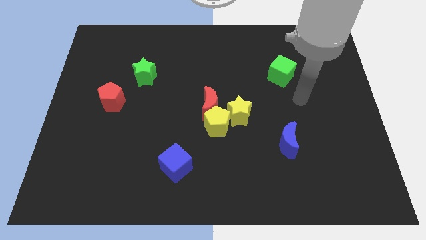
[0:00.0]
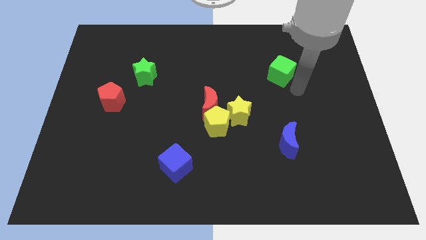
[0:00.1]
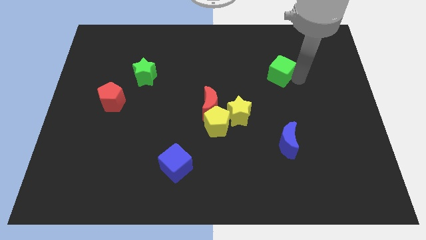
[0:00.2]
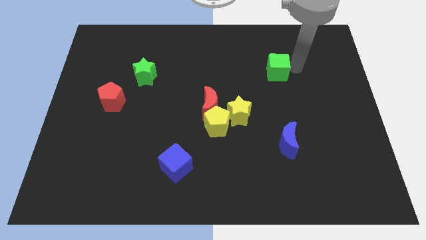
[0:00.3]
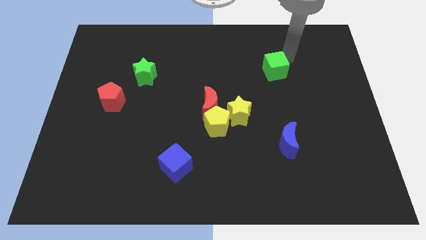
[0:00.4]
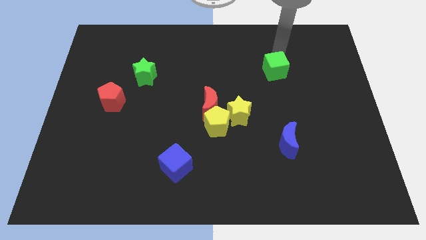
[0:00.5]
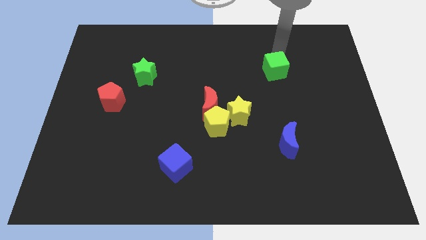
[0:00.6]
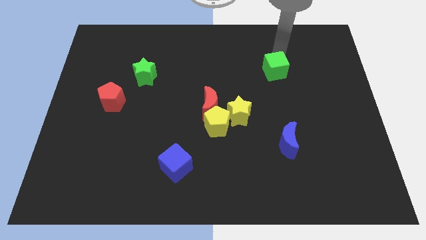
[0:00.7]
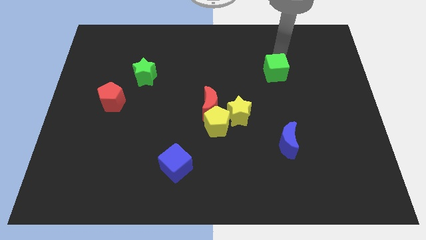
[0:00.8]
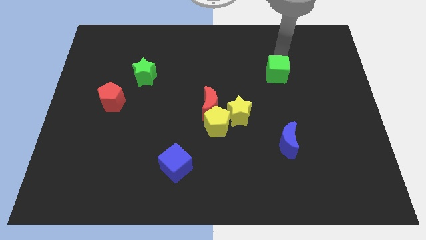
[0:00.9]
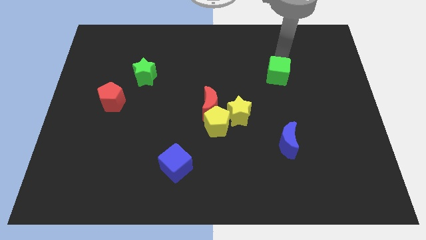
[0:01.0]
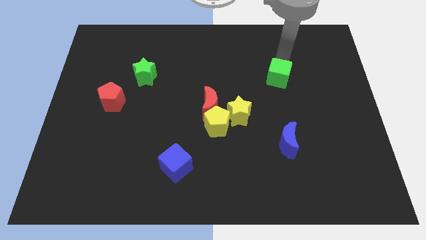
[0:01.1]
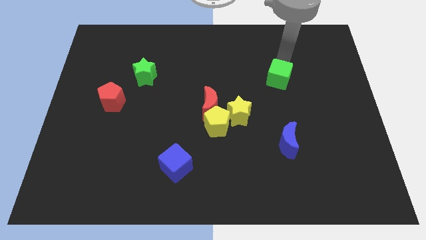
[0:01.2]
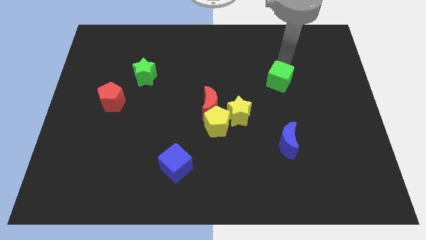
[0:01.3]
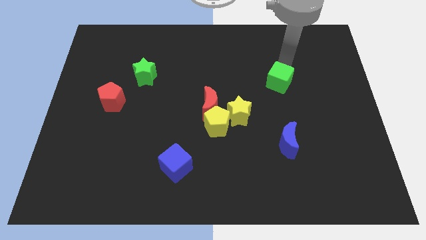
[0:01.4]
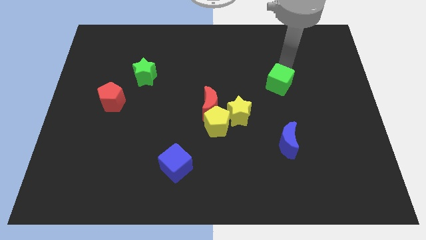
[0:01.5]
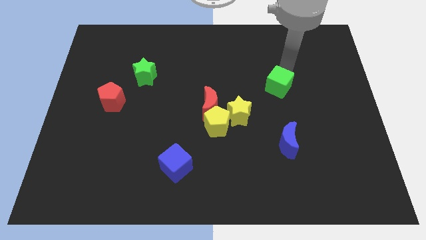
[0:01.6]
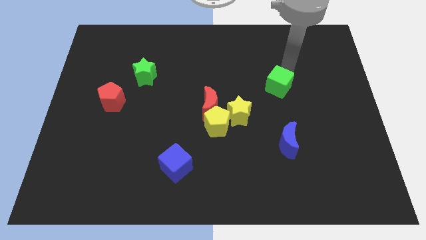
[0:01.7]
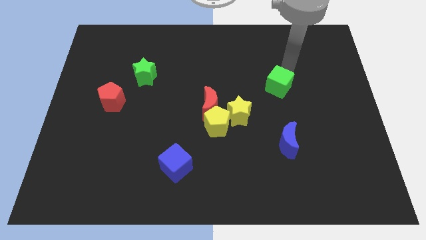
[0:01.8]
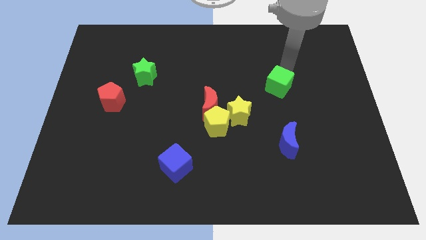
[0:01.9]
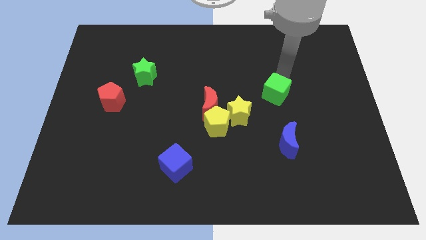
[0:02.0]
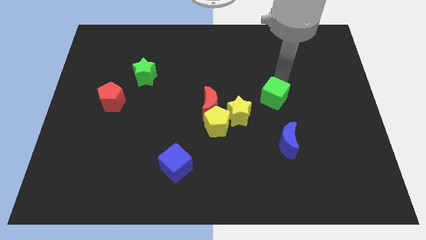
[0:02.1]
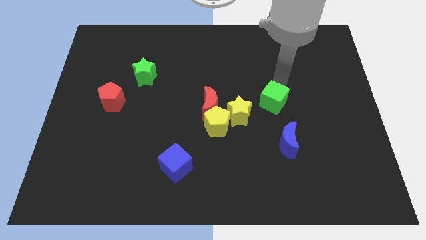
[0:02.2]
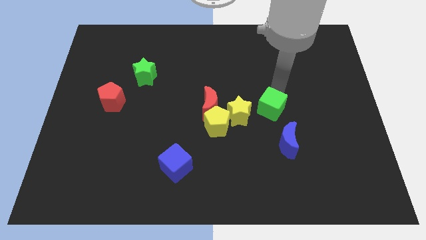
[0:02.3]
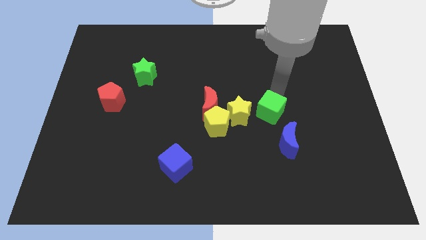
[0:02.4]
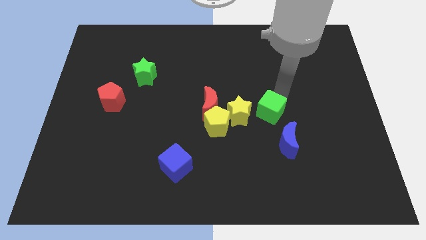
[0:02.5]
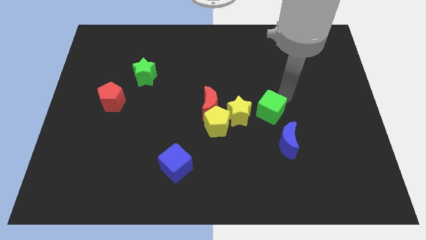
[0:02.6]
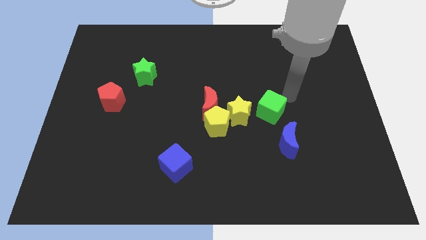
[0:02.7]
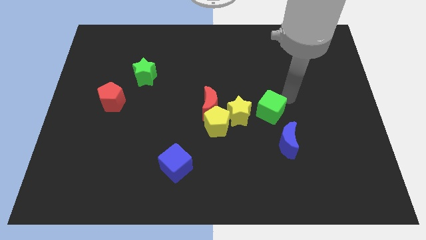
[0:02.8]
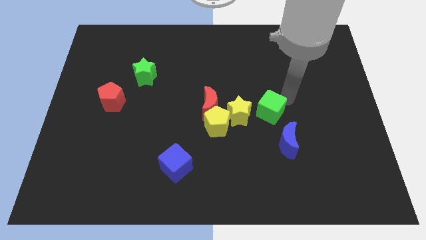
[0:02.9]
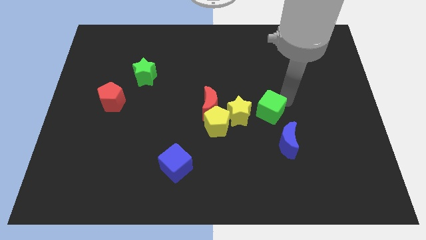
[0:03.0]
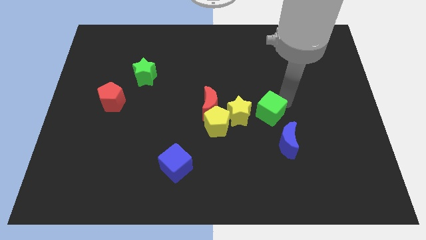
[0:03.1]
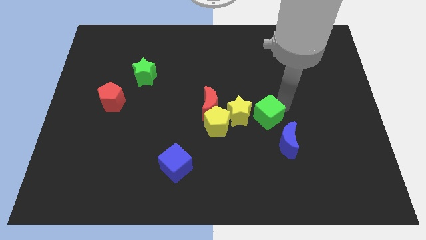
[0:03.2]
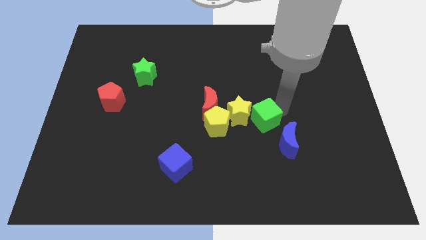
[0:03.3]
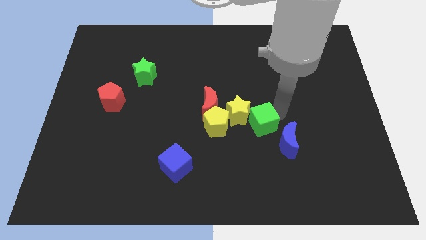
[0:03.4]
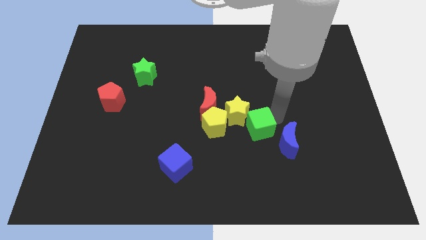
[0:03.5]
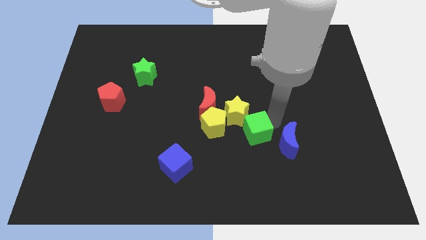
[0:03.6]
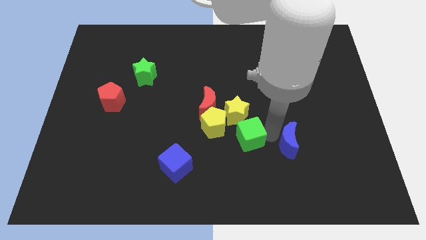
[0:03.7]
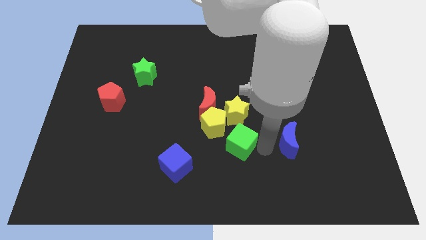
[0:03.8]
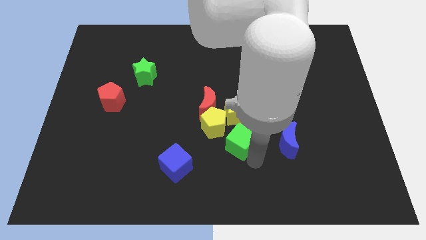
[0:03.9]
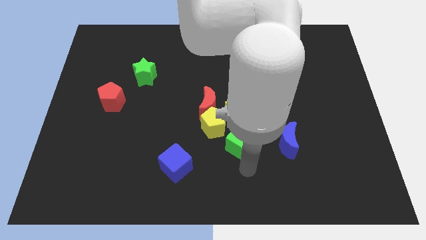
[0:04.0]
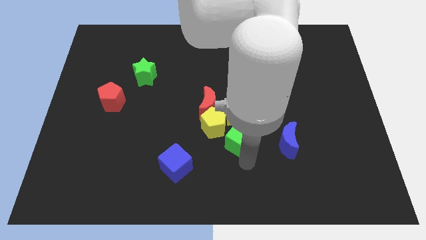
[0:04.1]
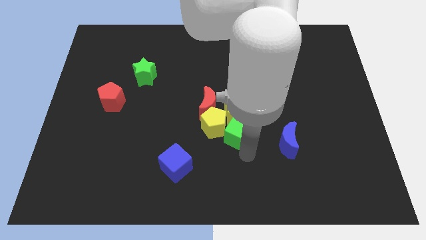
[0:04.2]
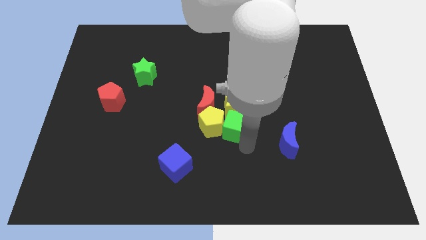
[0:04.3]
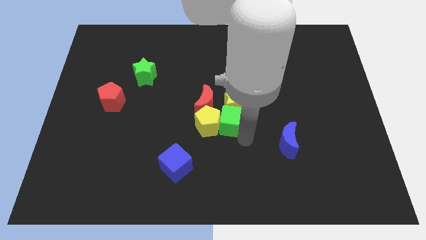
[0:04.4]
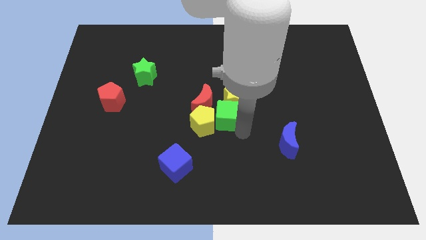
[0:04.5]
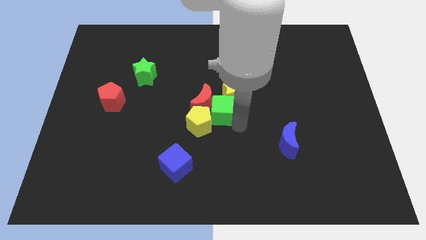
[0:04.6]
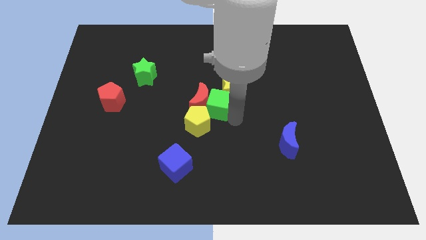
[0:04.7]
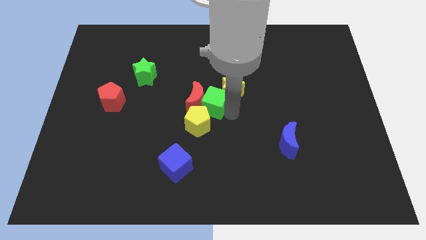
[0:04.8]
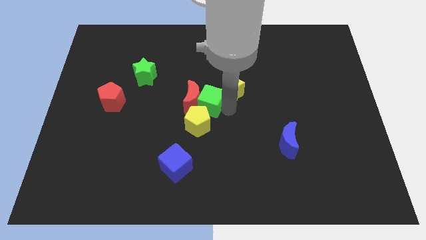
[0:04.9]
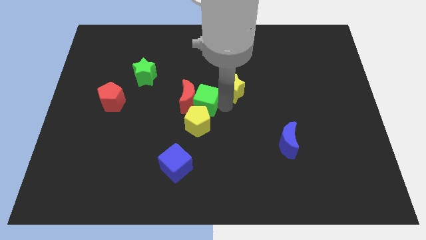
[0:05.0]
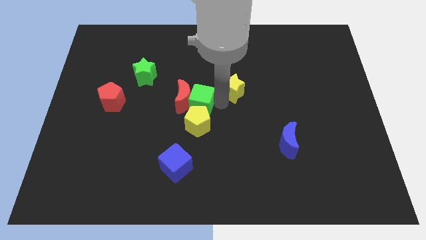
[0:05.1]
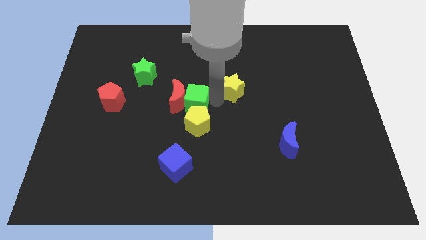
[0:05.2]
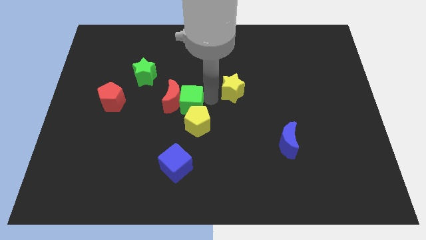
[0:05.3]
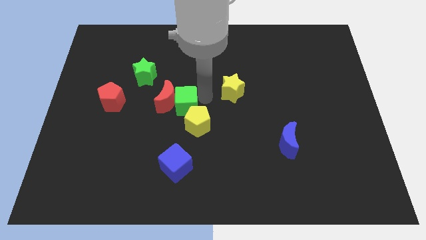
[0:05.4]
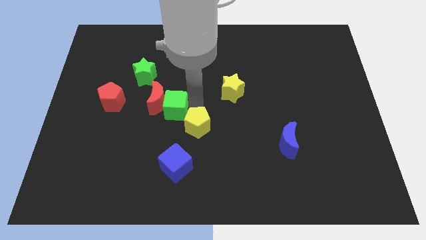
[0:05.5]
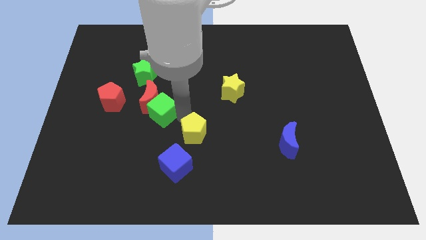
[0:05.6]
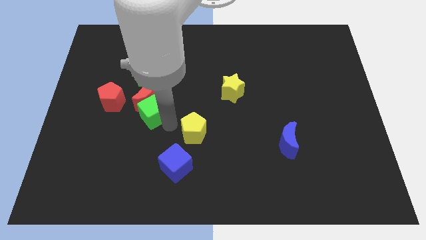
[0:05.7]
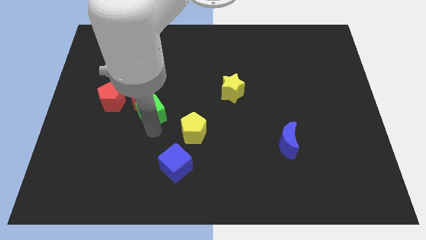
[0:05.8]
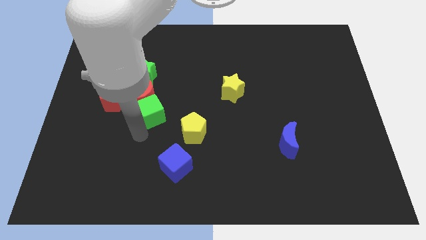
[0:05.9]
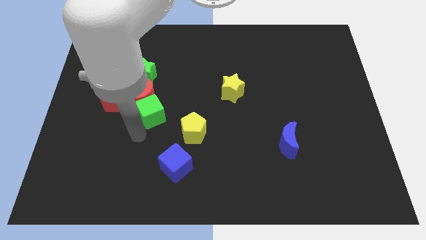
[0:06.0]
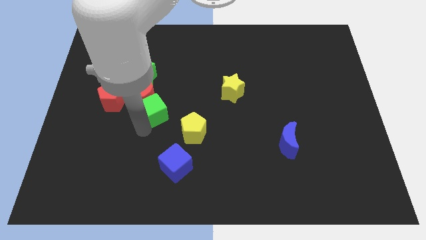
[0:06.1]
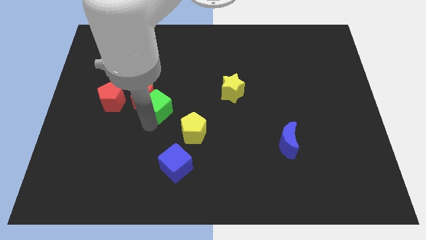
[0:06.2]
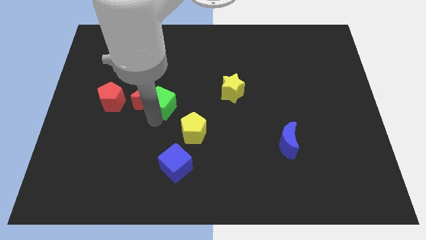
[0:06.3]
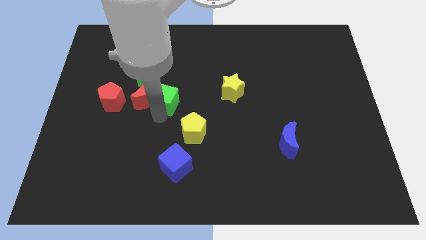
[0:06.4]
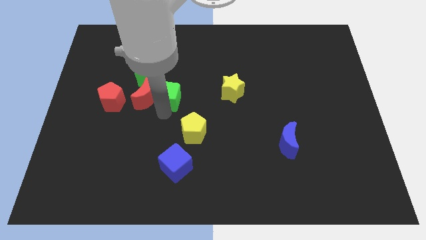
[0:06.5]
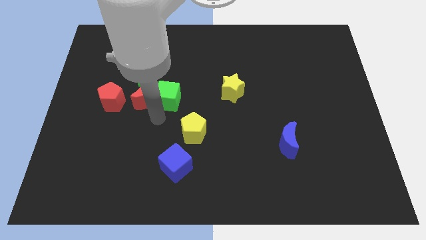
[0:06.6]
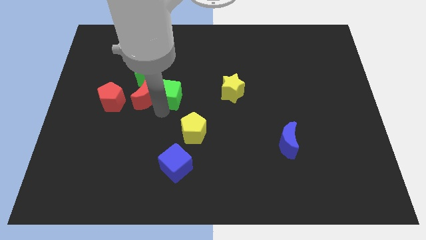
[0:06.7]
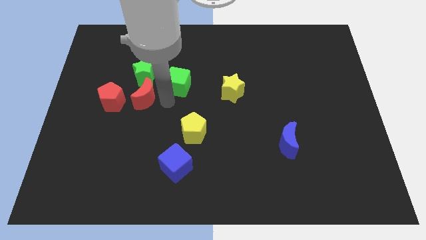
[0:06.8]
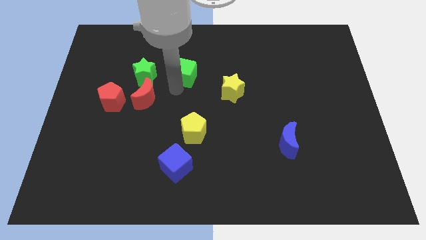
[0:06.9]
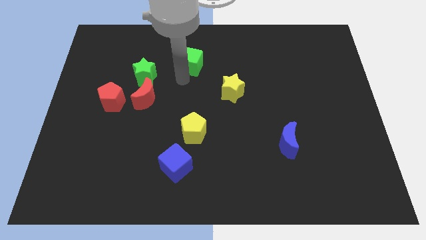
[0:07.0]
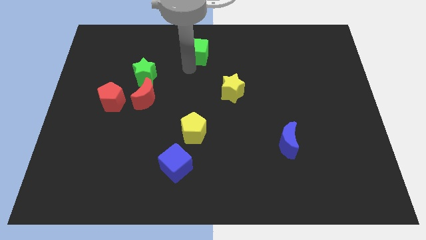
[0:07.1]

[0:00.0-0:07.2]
put the green cube to the top side

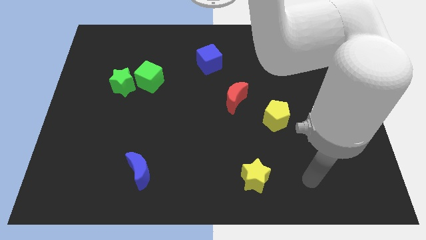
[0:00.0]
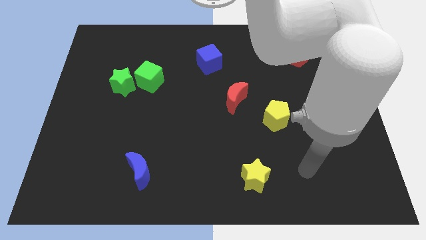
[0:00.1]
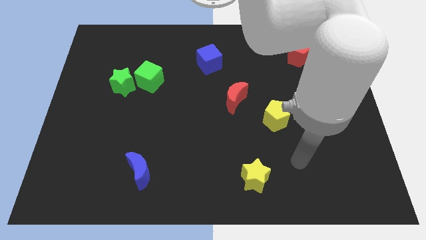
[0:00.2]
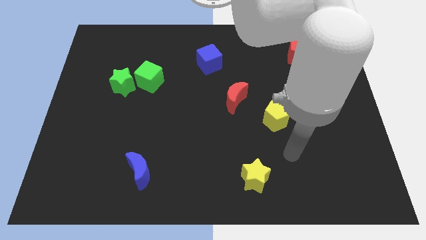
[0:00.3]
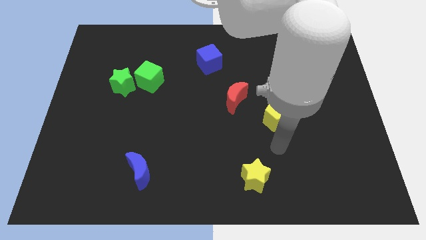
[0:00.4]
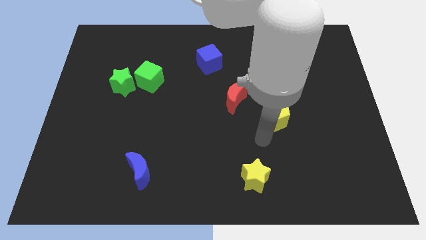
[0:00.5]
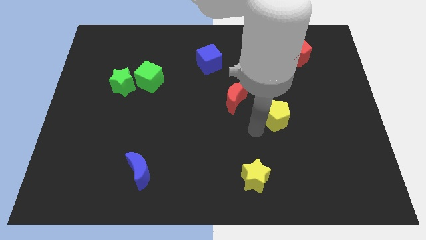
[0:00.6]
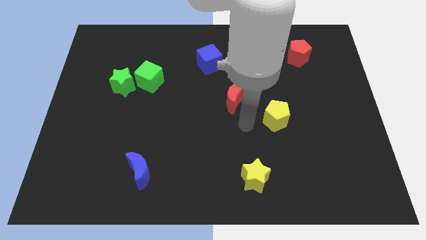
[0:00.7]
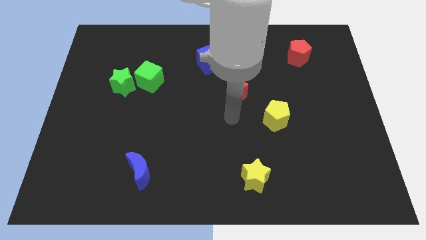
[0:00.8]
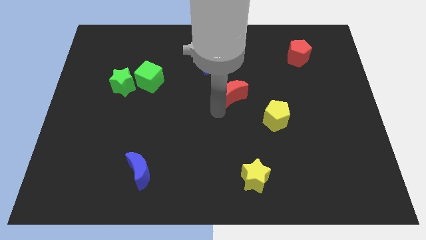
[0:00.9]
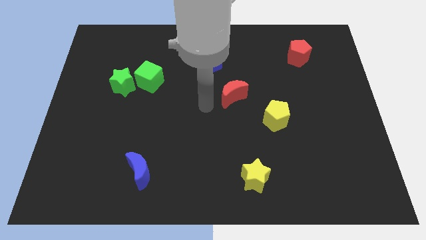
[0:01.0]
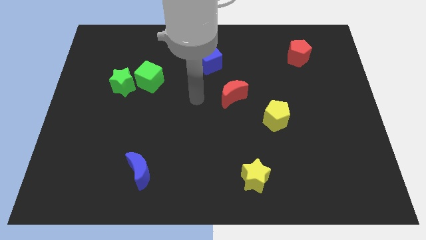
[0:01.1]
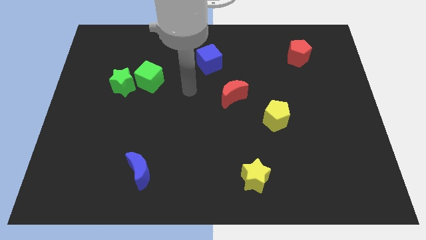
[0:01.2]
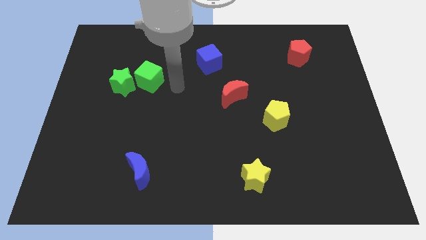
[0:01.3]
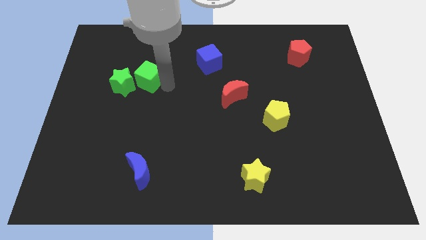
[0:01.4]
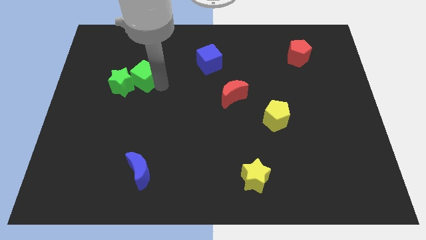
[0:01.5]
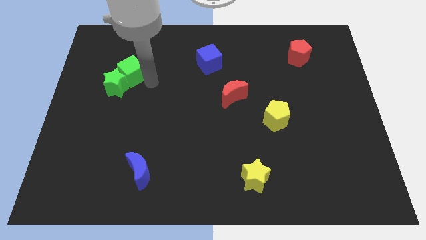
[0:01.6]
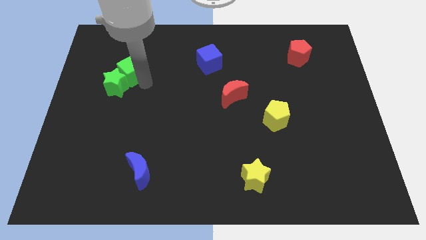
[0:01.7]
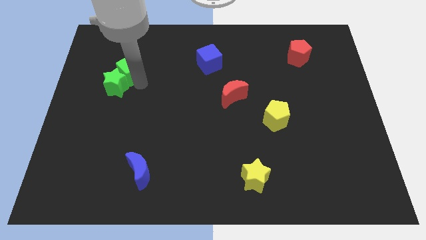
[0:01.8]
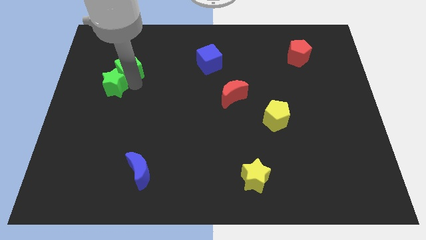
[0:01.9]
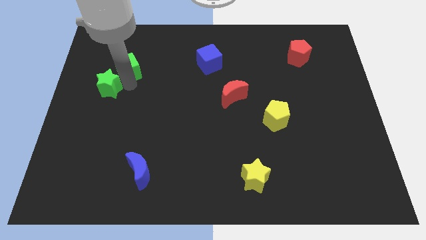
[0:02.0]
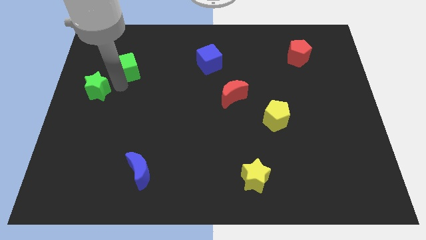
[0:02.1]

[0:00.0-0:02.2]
slide the green star to the left side
